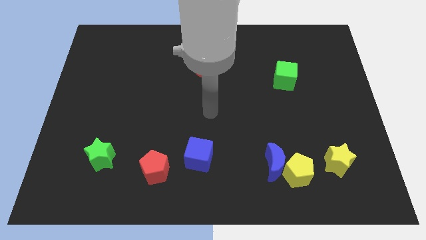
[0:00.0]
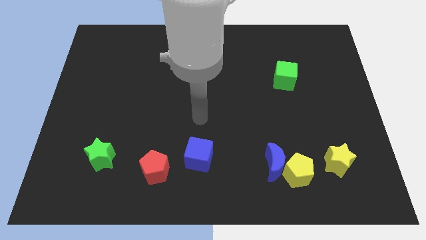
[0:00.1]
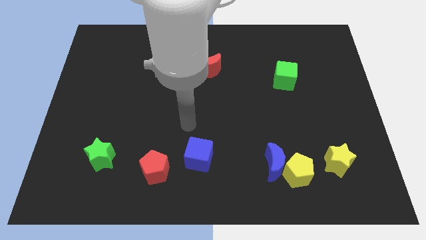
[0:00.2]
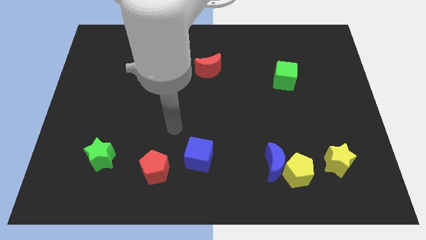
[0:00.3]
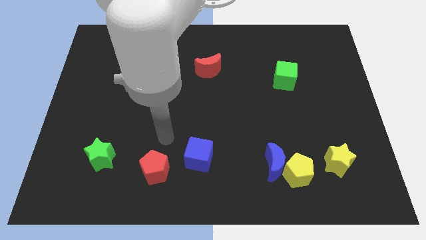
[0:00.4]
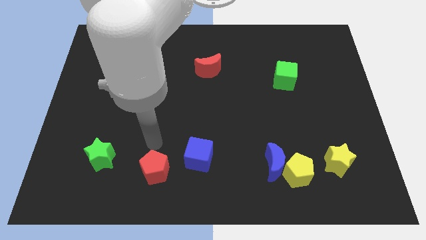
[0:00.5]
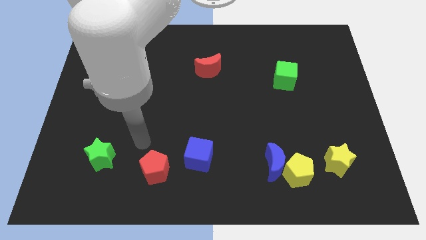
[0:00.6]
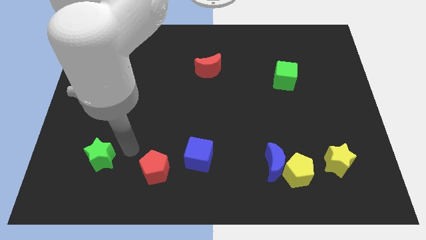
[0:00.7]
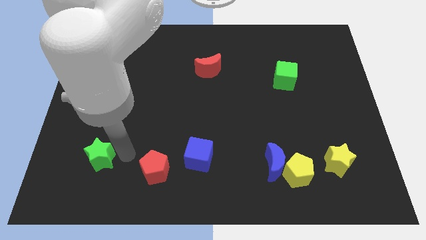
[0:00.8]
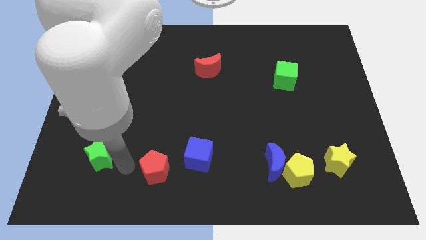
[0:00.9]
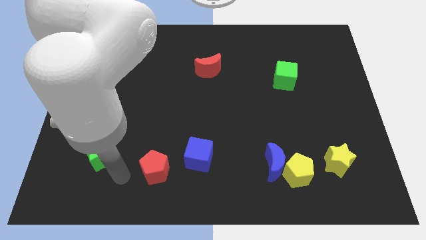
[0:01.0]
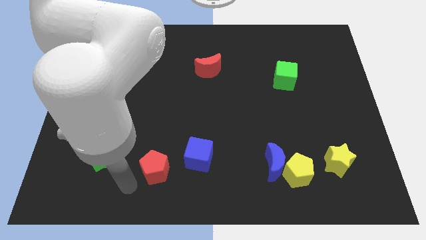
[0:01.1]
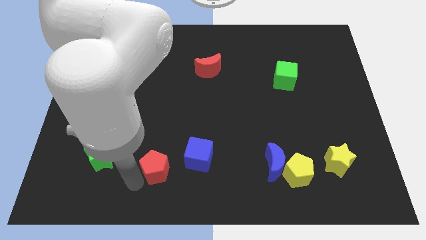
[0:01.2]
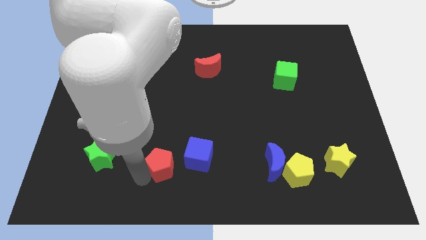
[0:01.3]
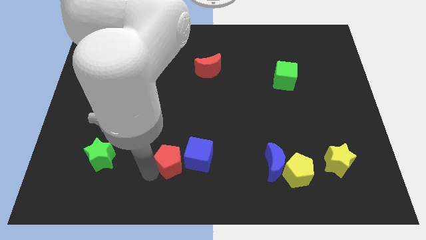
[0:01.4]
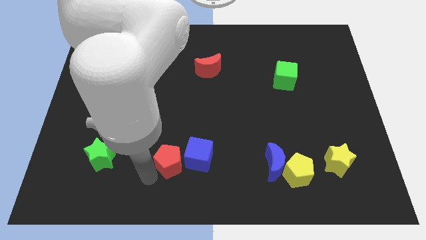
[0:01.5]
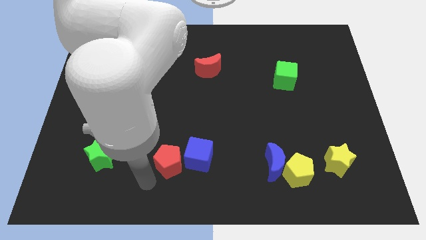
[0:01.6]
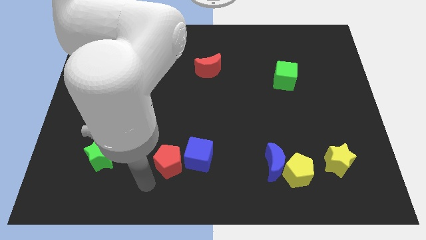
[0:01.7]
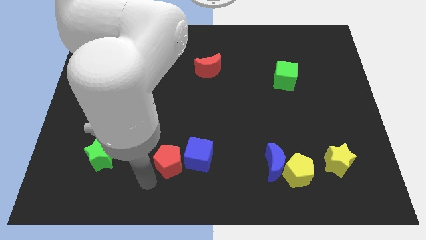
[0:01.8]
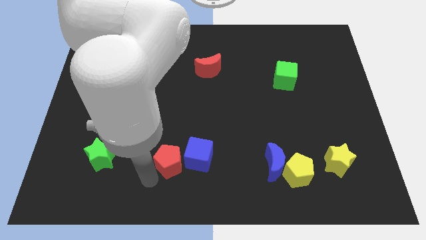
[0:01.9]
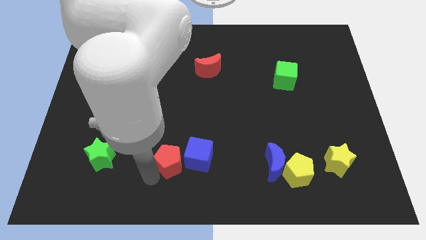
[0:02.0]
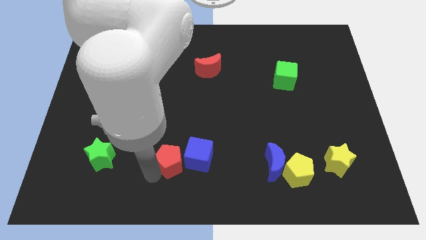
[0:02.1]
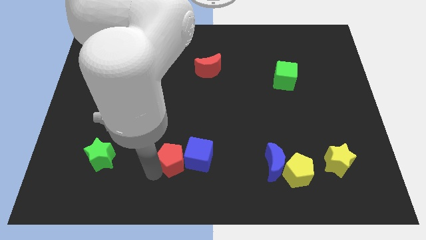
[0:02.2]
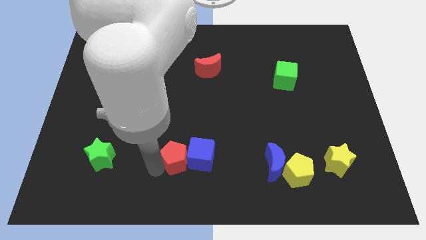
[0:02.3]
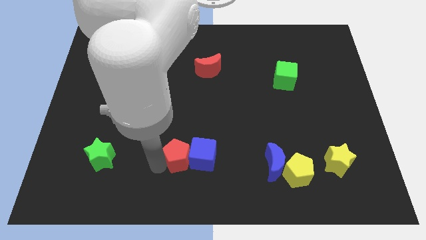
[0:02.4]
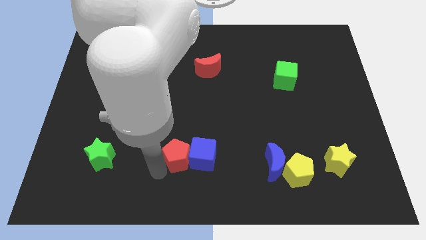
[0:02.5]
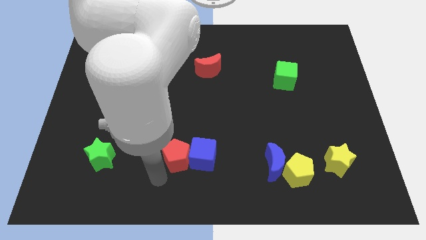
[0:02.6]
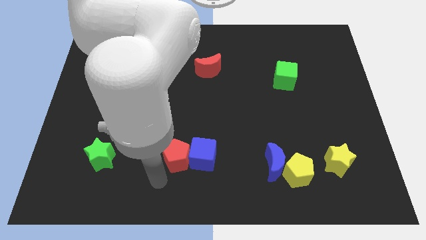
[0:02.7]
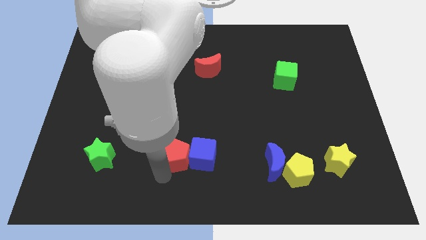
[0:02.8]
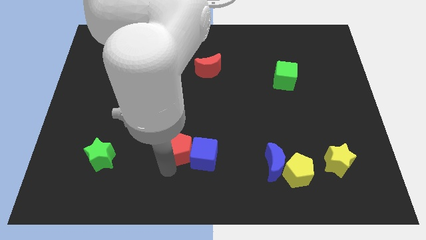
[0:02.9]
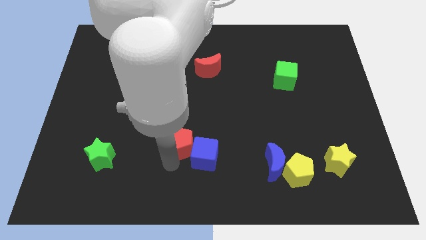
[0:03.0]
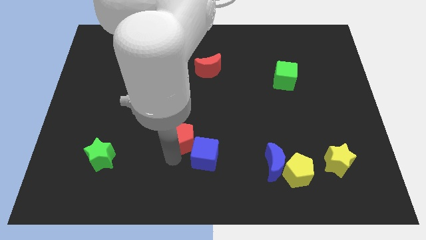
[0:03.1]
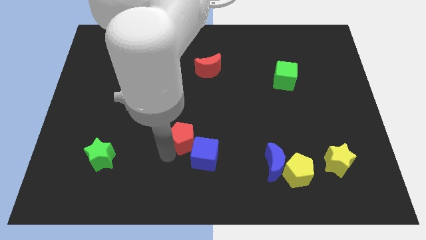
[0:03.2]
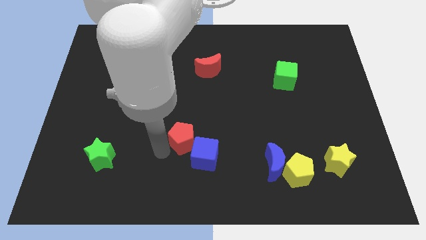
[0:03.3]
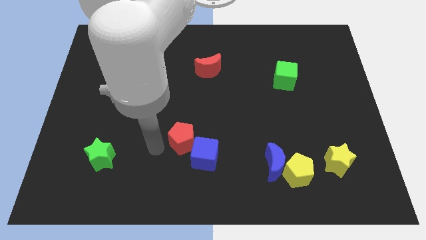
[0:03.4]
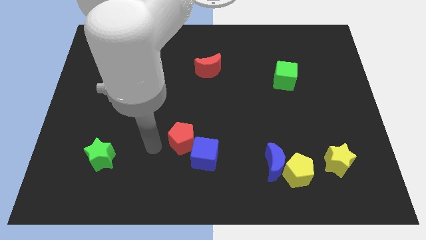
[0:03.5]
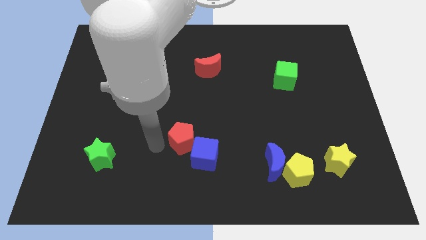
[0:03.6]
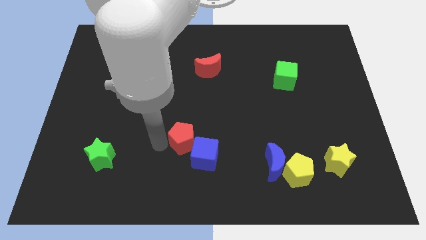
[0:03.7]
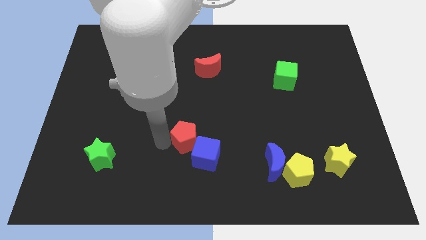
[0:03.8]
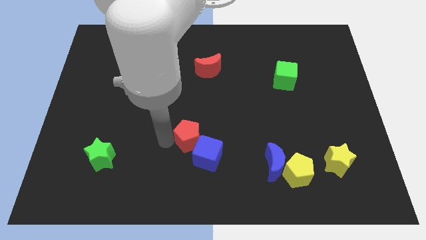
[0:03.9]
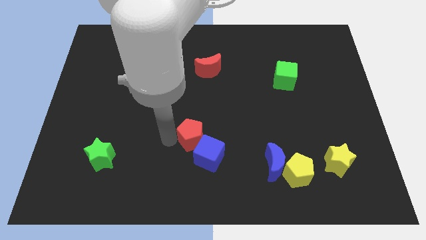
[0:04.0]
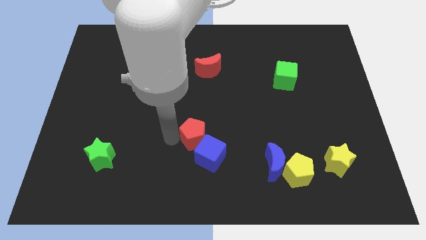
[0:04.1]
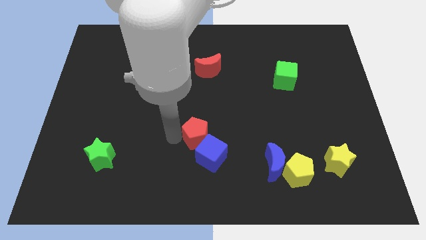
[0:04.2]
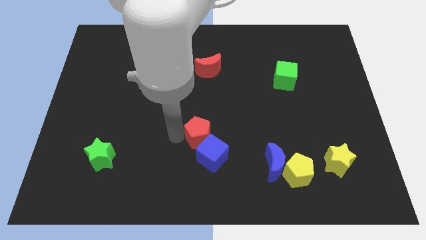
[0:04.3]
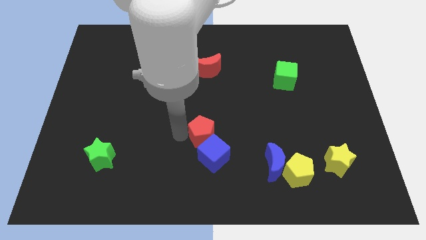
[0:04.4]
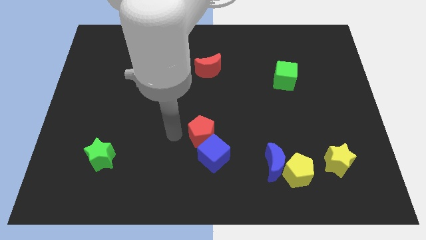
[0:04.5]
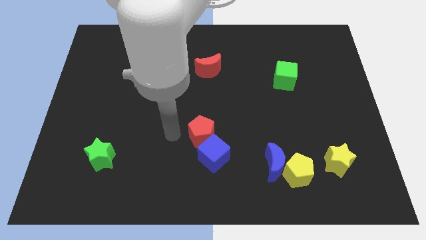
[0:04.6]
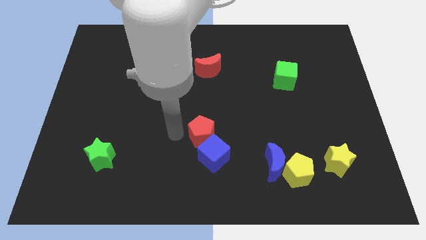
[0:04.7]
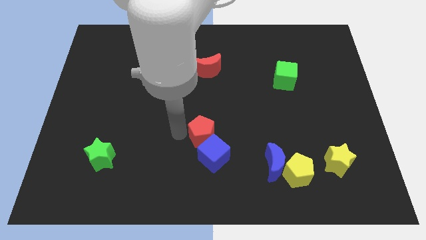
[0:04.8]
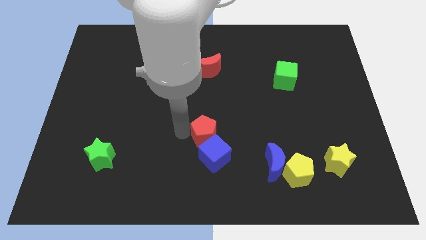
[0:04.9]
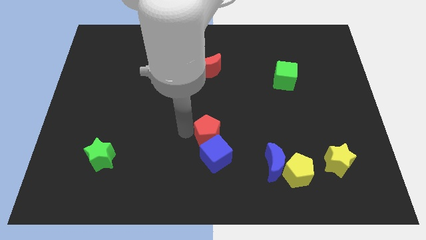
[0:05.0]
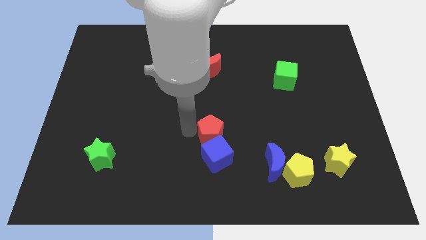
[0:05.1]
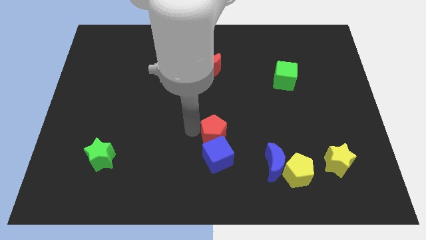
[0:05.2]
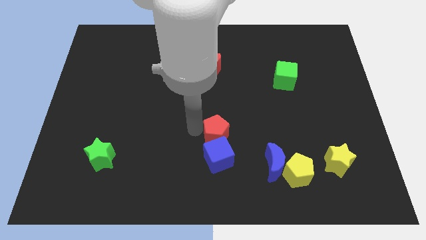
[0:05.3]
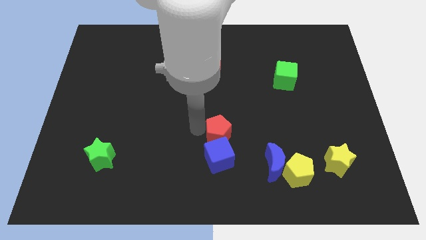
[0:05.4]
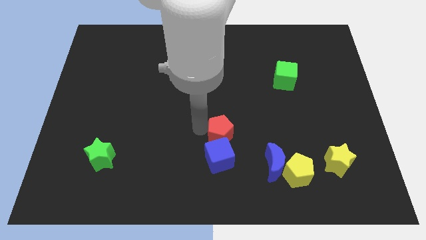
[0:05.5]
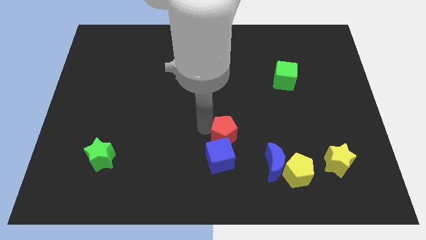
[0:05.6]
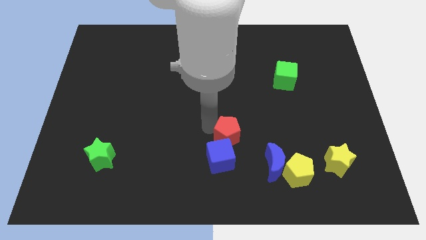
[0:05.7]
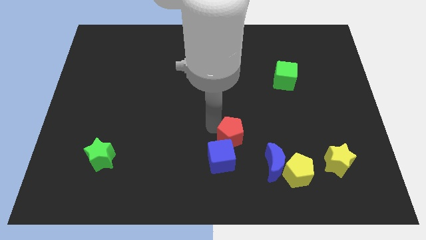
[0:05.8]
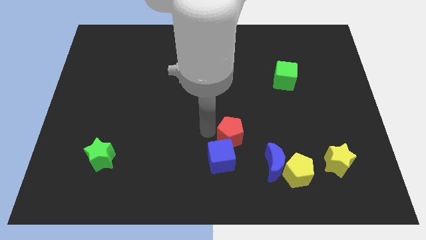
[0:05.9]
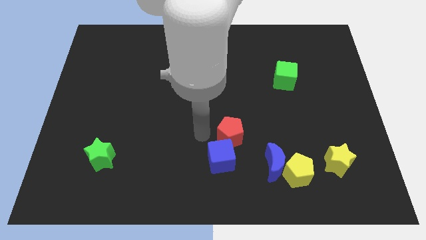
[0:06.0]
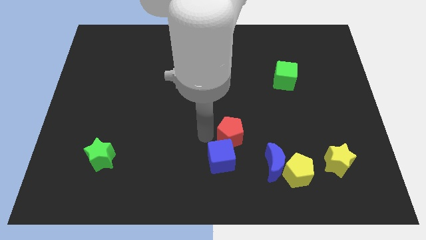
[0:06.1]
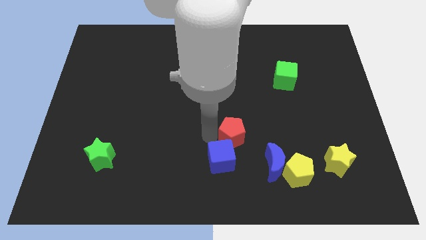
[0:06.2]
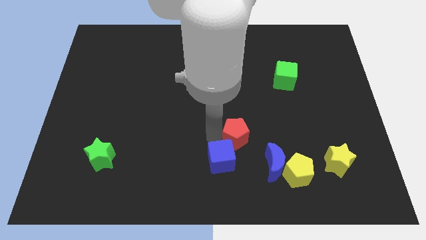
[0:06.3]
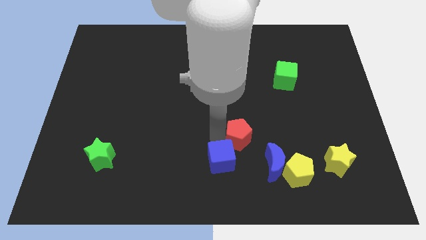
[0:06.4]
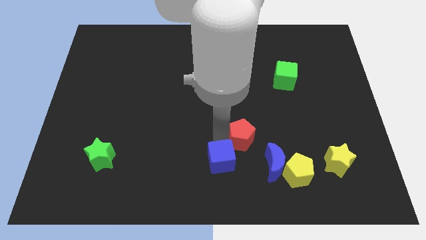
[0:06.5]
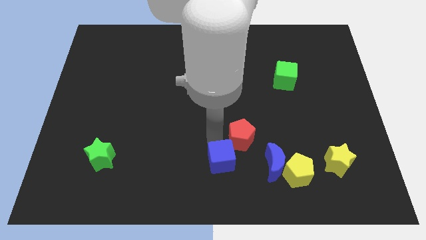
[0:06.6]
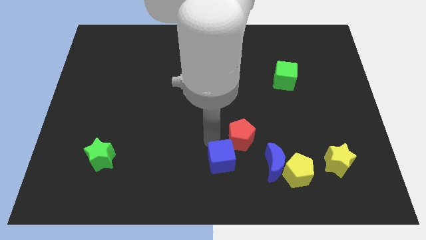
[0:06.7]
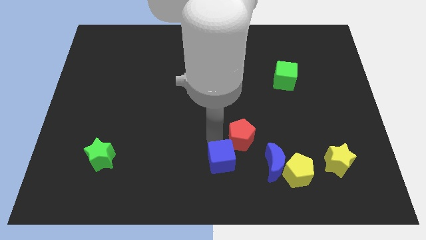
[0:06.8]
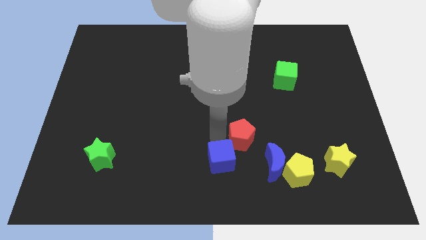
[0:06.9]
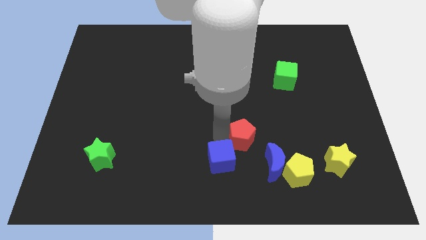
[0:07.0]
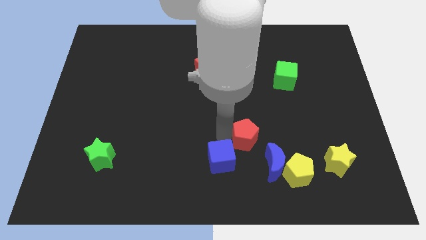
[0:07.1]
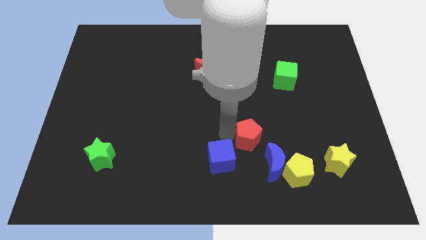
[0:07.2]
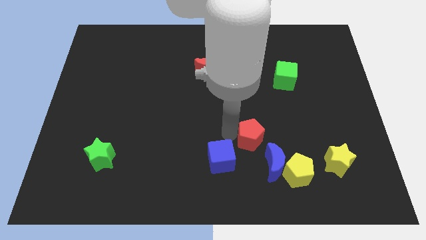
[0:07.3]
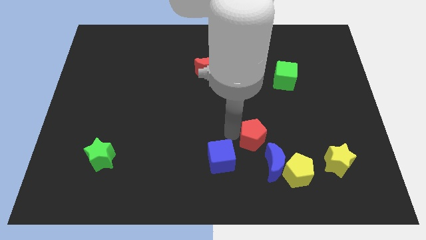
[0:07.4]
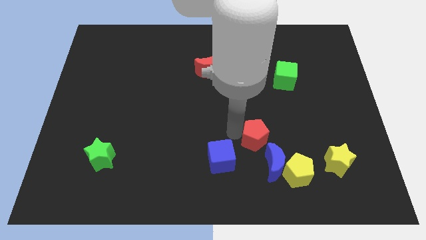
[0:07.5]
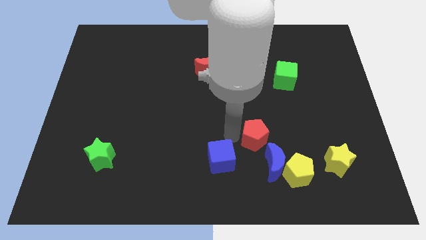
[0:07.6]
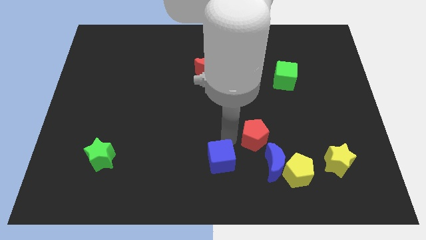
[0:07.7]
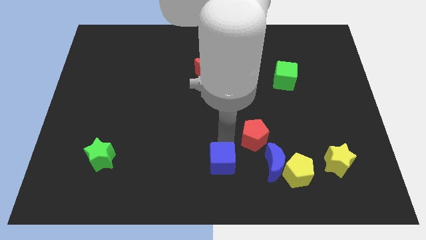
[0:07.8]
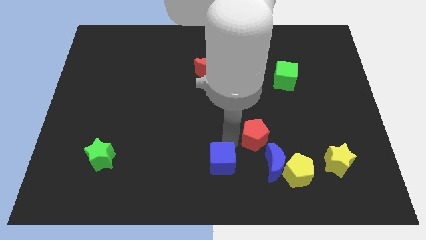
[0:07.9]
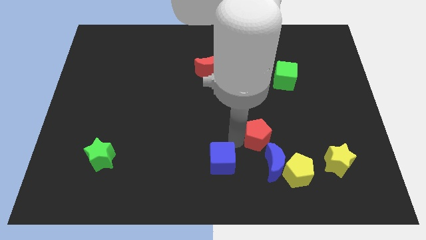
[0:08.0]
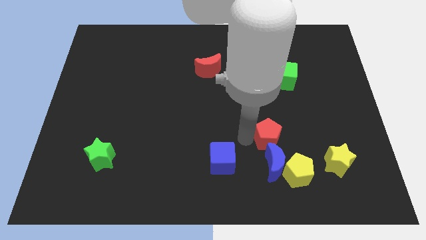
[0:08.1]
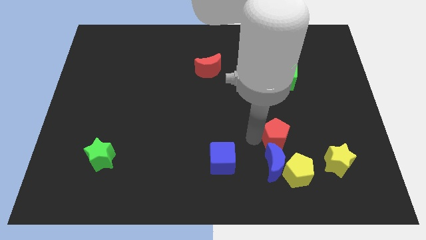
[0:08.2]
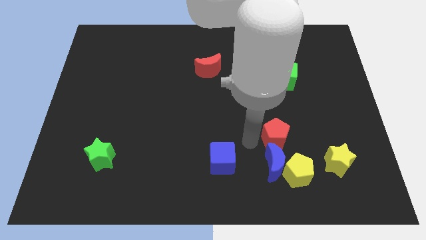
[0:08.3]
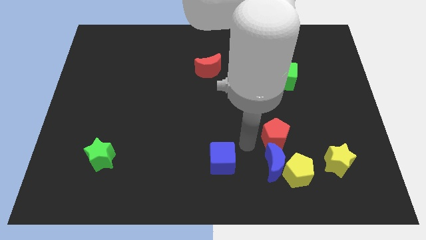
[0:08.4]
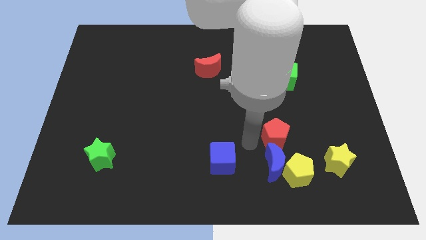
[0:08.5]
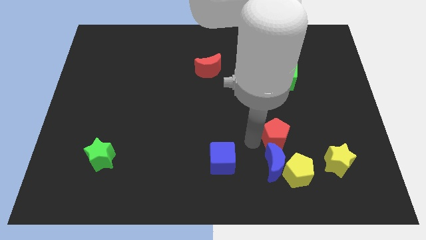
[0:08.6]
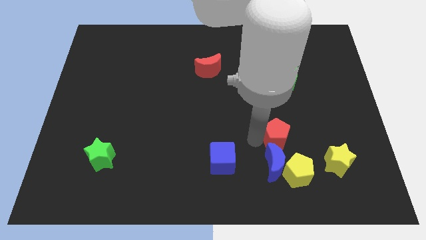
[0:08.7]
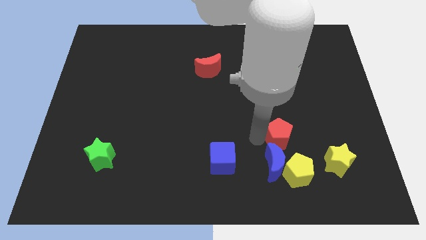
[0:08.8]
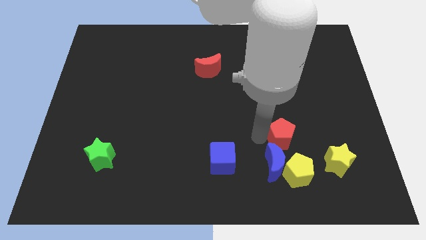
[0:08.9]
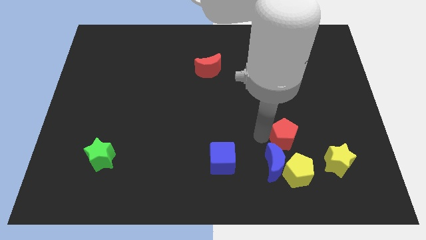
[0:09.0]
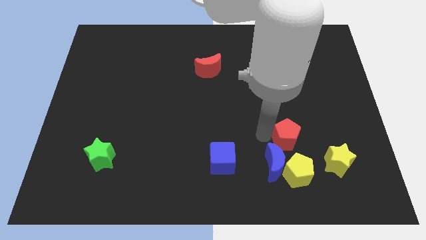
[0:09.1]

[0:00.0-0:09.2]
move the red pentagon to the top left of the yellow star
